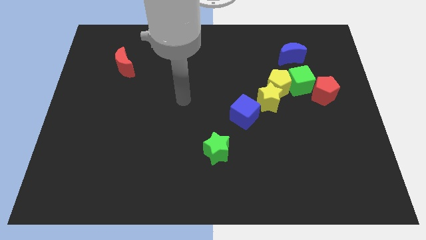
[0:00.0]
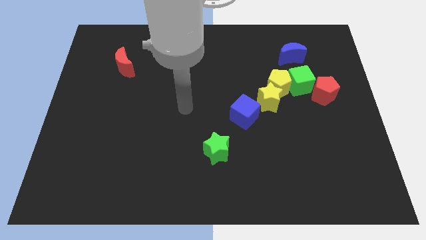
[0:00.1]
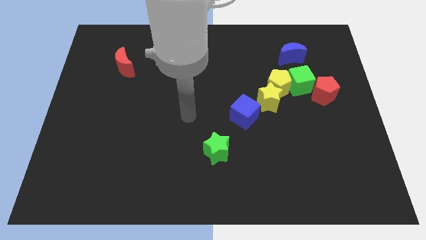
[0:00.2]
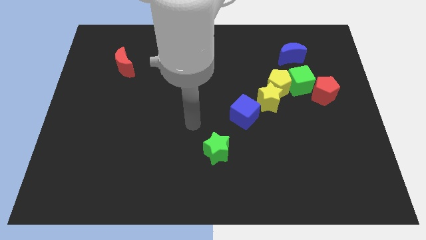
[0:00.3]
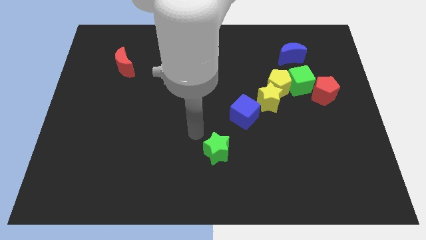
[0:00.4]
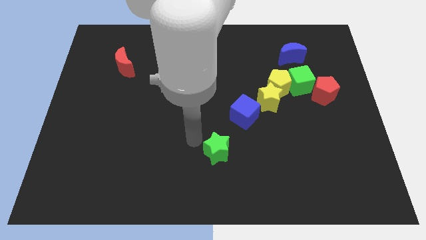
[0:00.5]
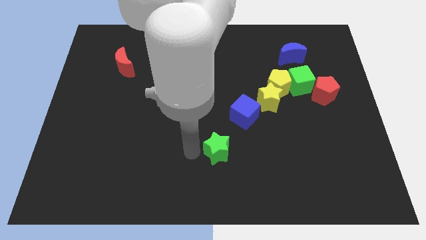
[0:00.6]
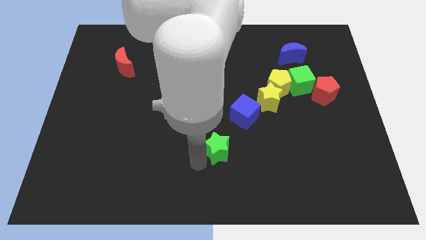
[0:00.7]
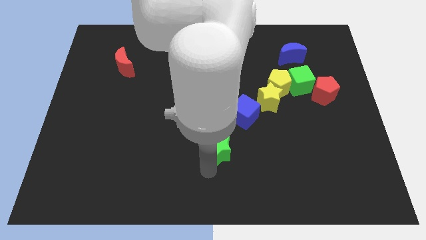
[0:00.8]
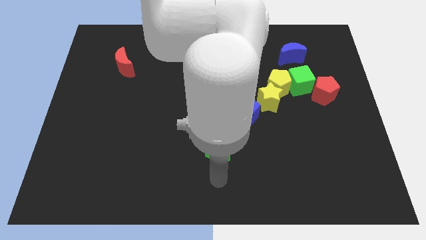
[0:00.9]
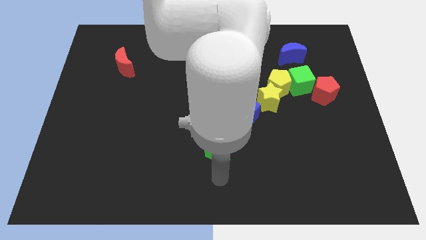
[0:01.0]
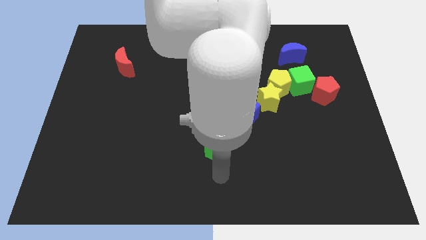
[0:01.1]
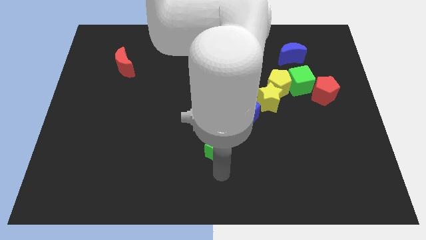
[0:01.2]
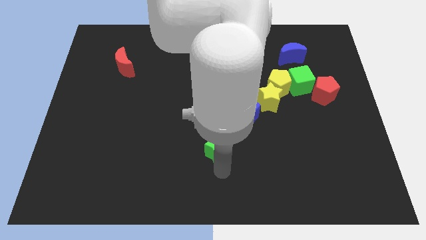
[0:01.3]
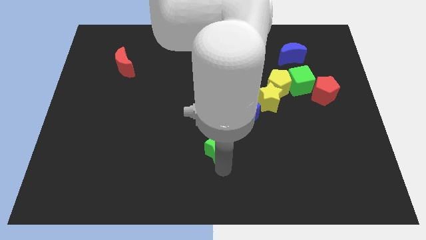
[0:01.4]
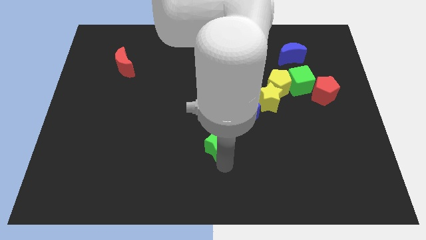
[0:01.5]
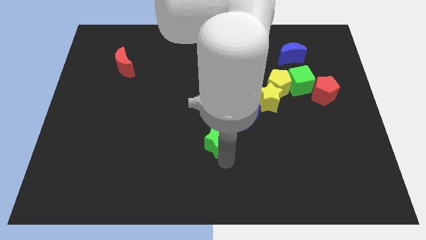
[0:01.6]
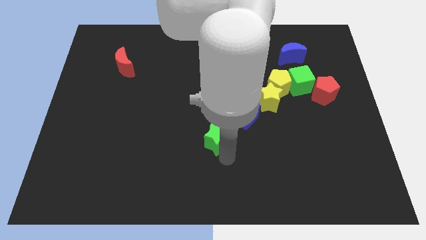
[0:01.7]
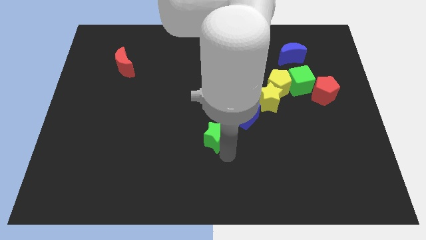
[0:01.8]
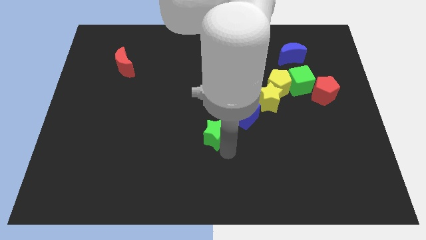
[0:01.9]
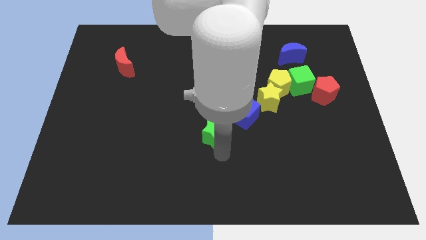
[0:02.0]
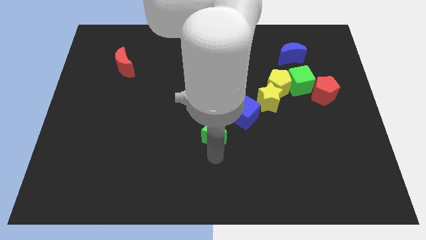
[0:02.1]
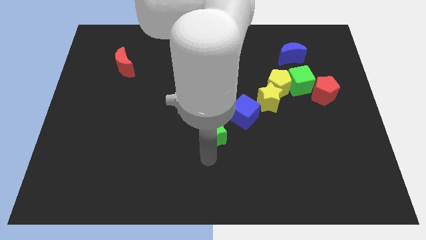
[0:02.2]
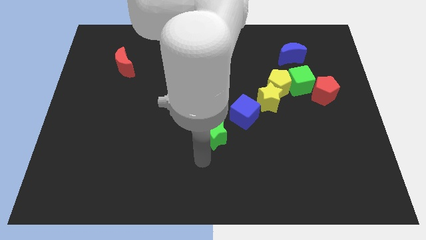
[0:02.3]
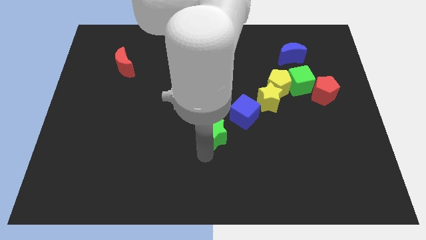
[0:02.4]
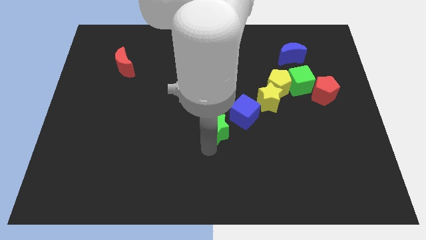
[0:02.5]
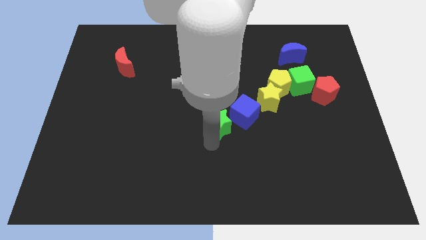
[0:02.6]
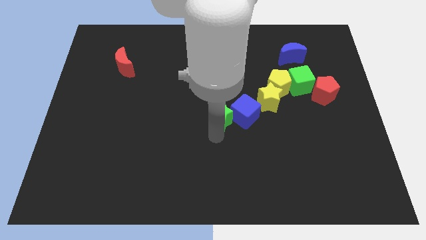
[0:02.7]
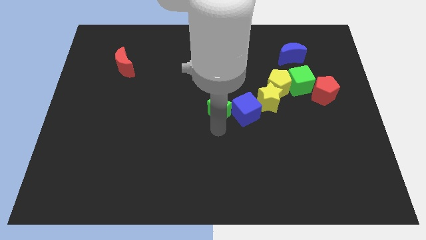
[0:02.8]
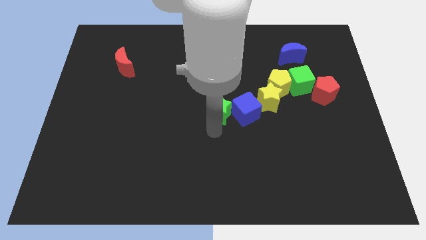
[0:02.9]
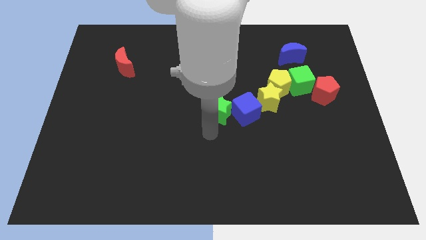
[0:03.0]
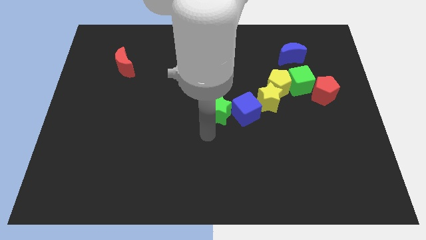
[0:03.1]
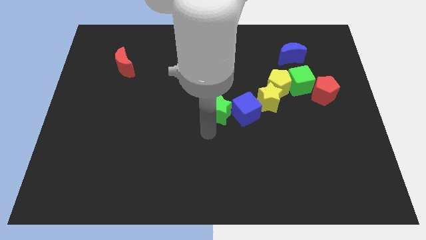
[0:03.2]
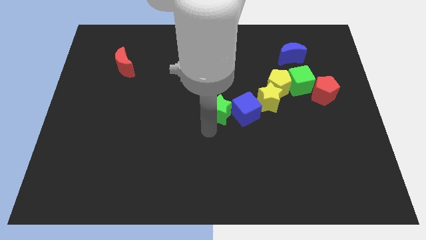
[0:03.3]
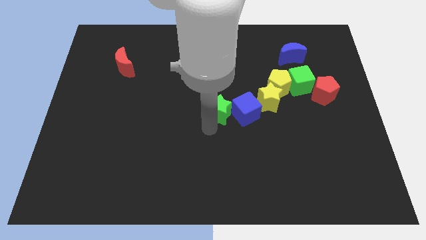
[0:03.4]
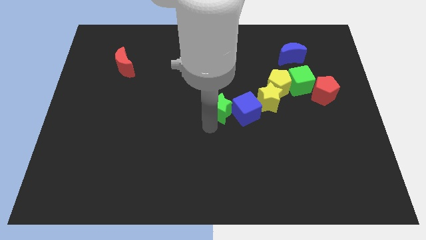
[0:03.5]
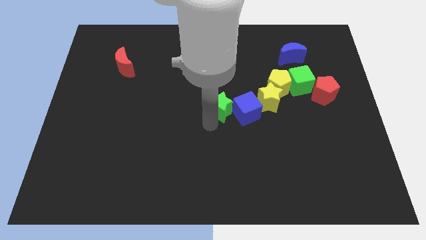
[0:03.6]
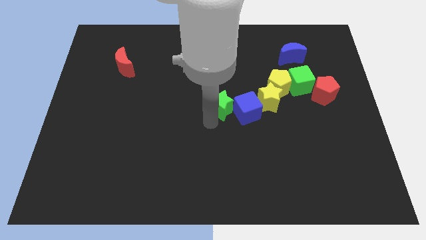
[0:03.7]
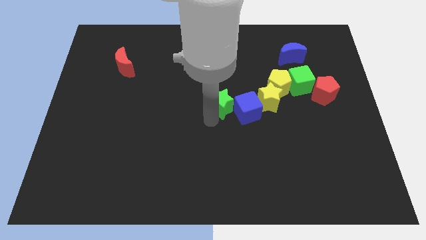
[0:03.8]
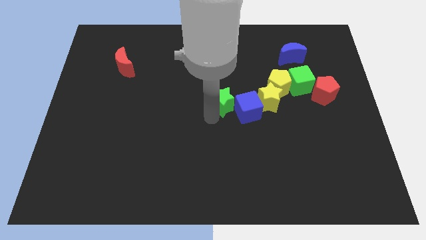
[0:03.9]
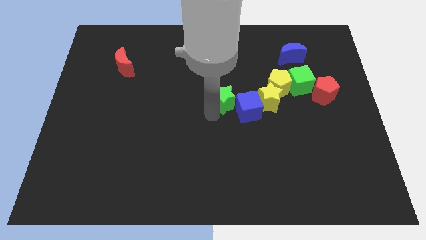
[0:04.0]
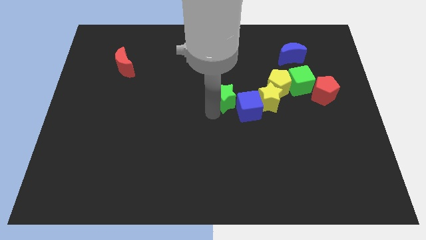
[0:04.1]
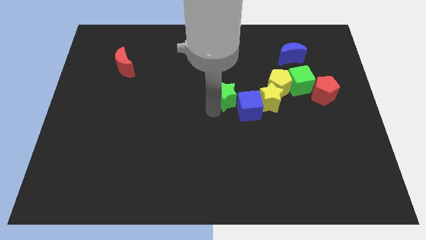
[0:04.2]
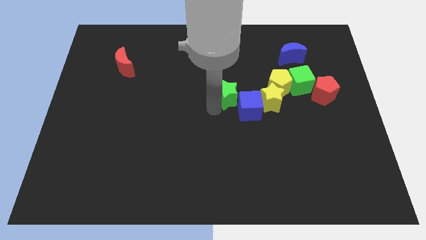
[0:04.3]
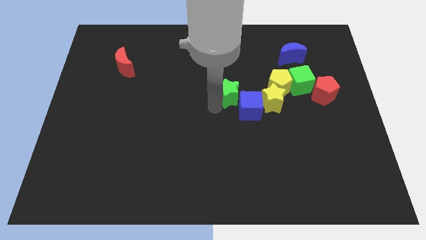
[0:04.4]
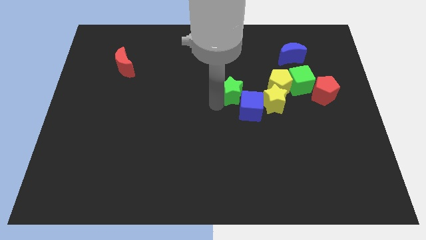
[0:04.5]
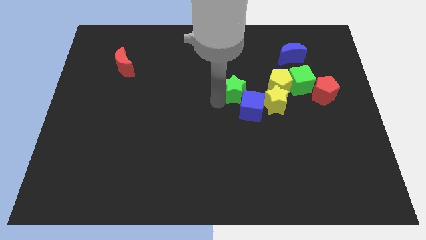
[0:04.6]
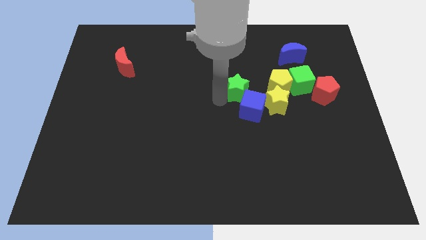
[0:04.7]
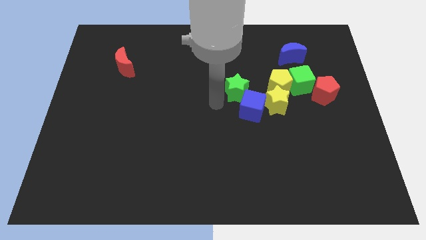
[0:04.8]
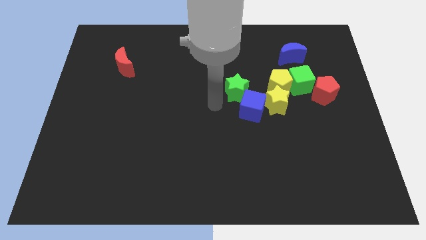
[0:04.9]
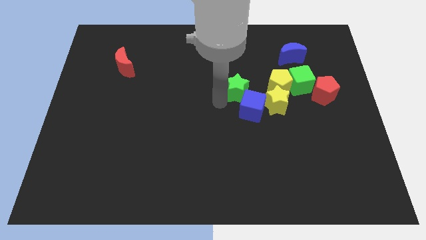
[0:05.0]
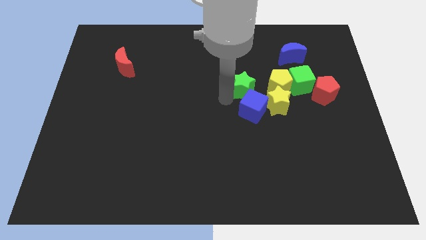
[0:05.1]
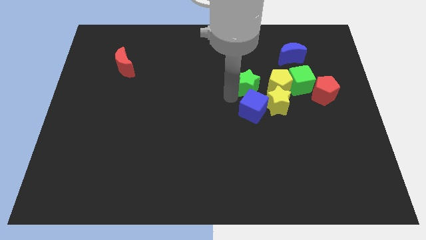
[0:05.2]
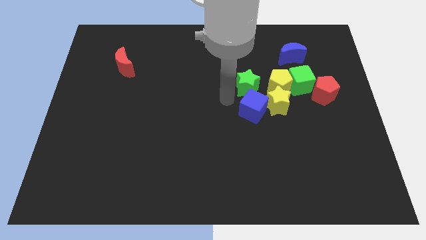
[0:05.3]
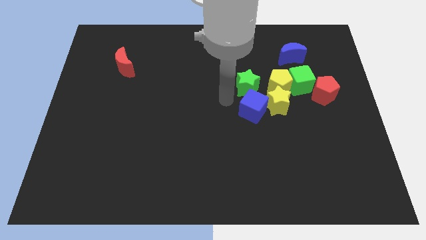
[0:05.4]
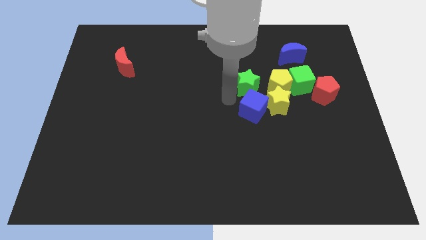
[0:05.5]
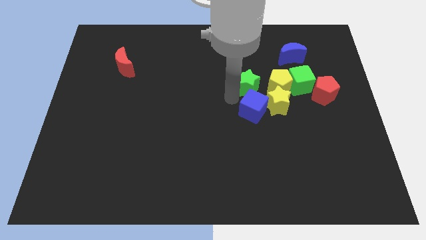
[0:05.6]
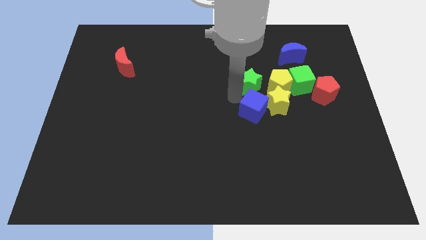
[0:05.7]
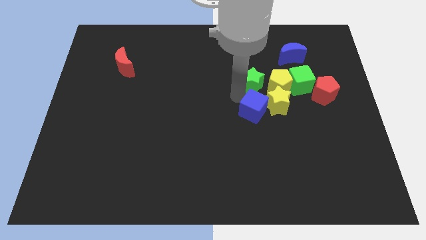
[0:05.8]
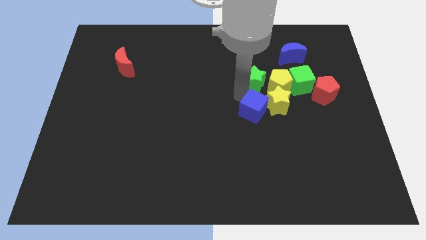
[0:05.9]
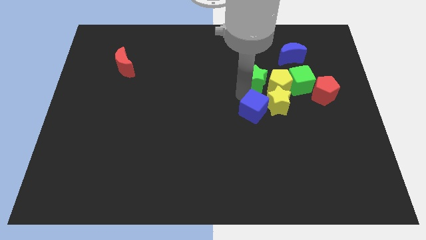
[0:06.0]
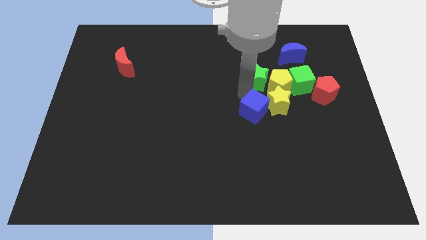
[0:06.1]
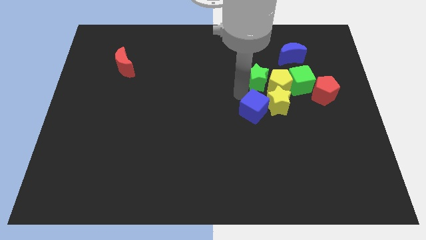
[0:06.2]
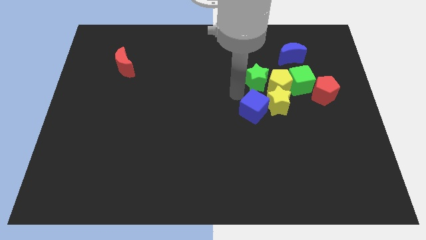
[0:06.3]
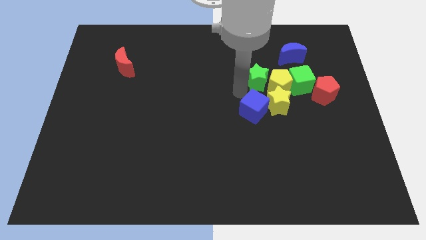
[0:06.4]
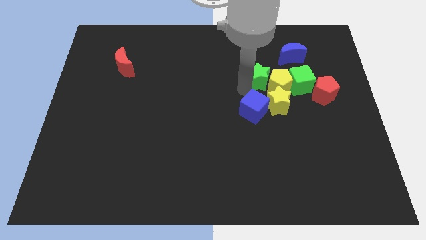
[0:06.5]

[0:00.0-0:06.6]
move the green star upwards and to the right diagonally

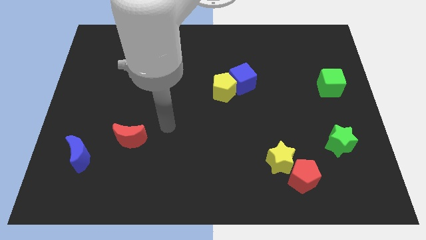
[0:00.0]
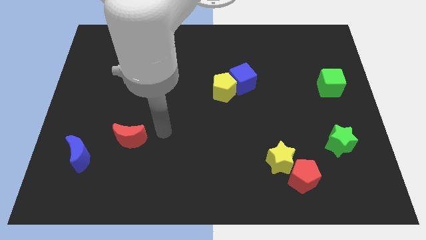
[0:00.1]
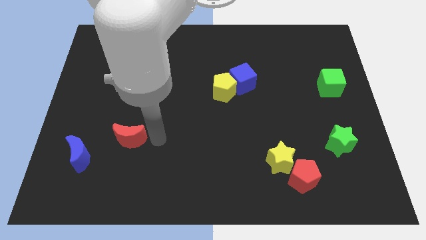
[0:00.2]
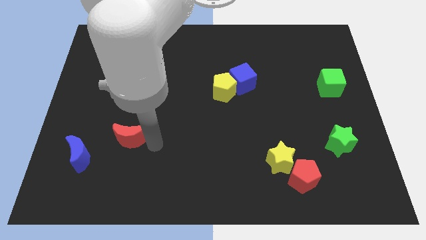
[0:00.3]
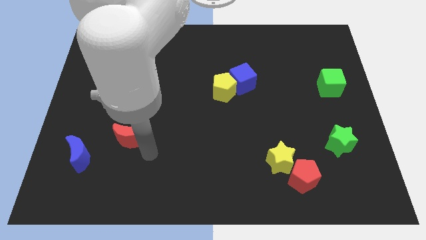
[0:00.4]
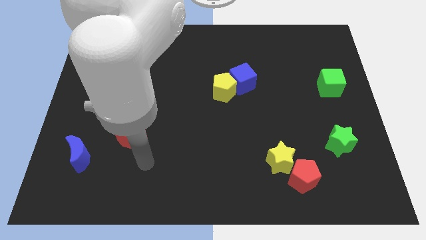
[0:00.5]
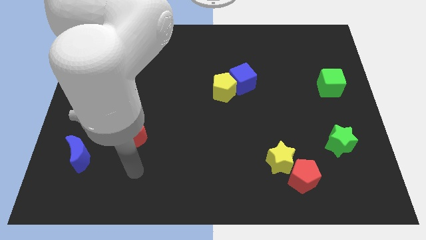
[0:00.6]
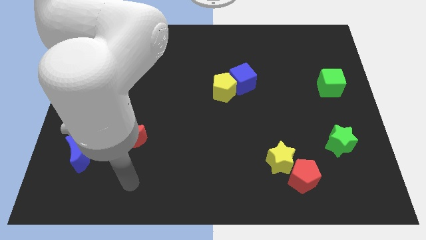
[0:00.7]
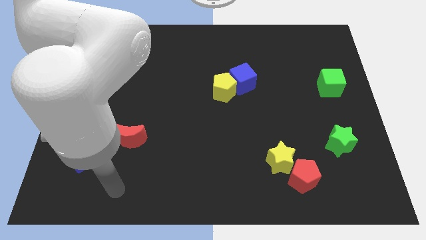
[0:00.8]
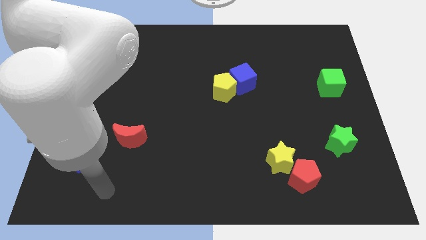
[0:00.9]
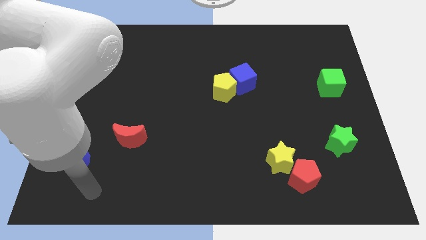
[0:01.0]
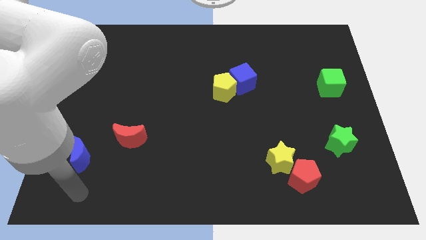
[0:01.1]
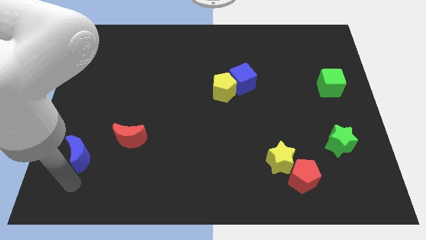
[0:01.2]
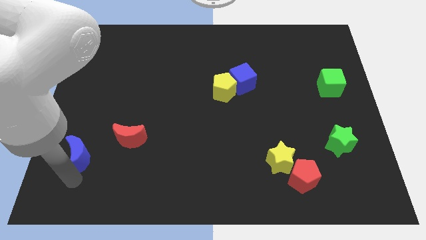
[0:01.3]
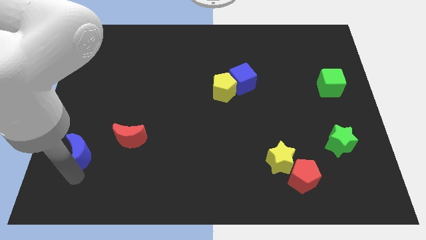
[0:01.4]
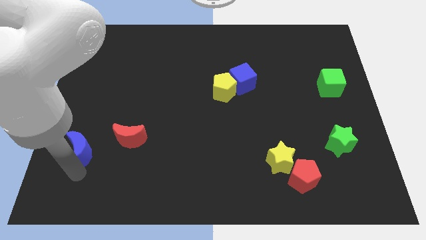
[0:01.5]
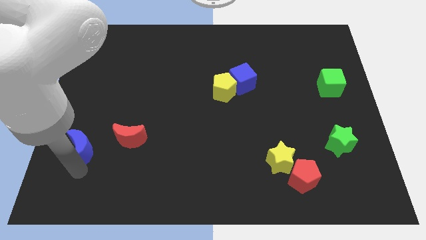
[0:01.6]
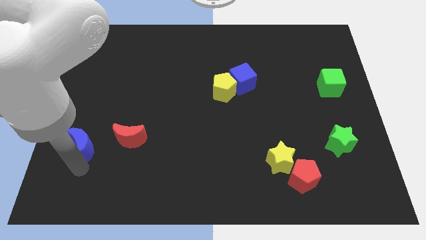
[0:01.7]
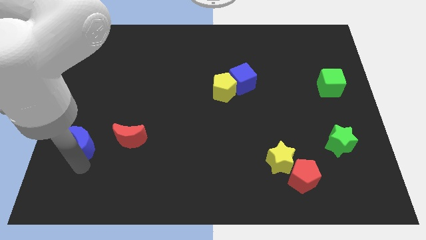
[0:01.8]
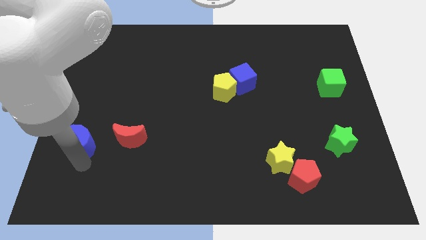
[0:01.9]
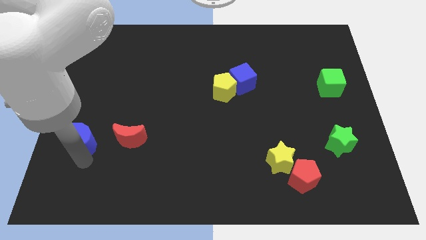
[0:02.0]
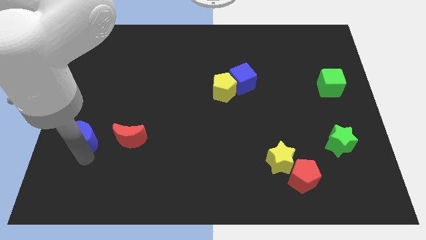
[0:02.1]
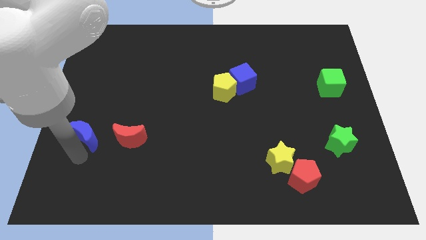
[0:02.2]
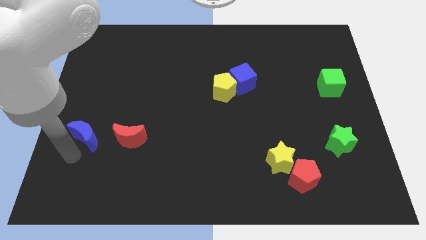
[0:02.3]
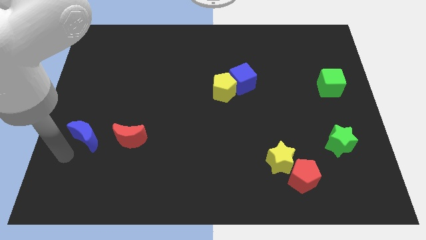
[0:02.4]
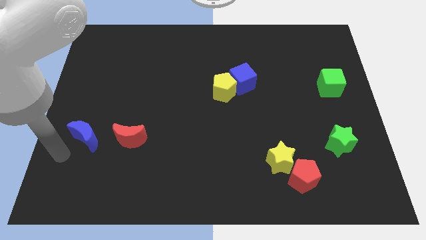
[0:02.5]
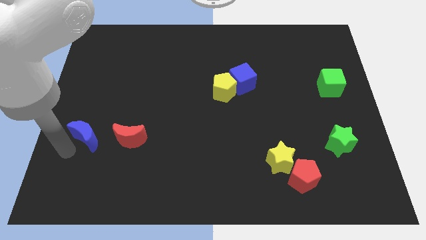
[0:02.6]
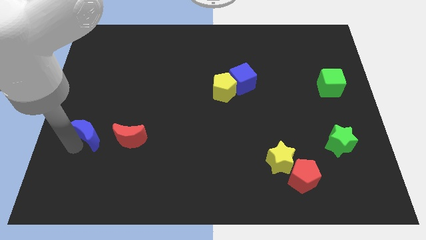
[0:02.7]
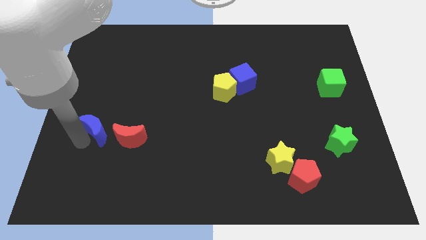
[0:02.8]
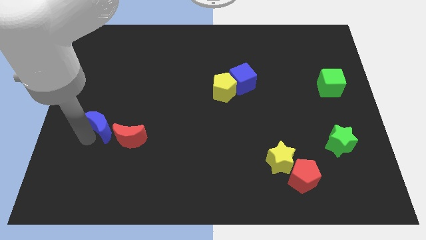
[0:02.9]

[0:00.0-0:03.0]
slide the blue moon somewhat up and right
